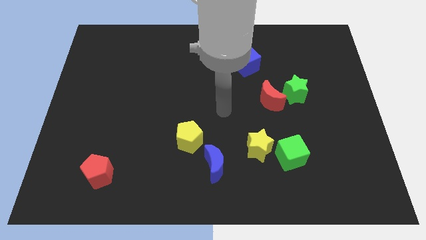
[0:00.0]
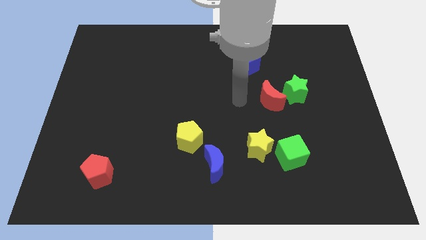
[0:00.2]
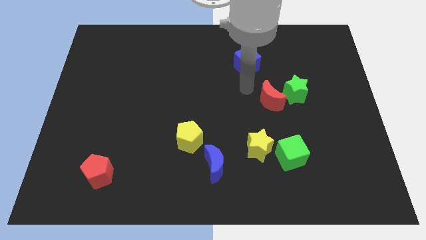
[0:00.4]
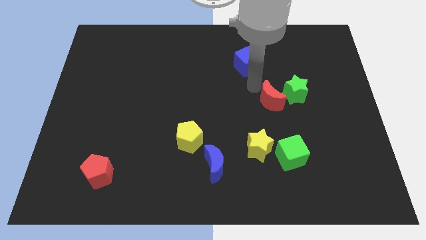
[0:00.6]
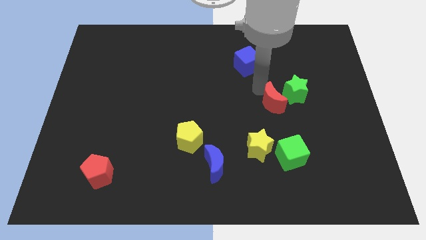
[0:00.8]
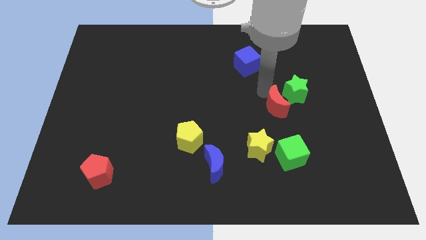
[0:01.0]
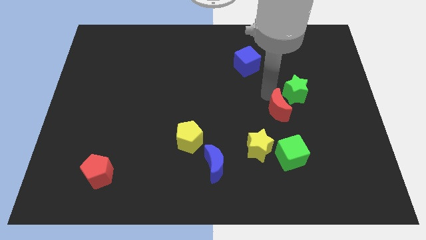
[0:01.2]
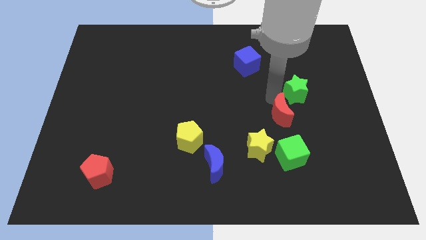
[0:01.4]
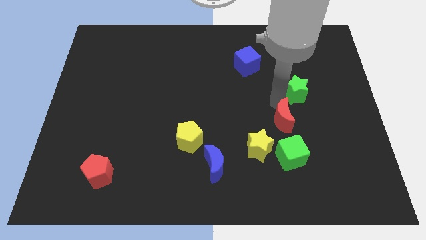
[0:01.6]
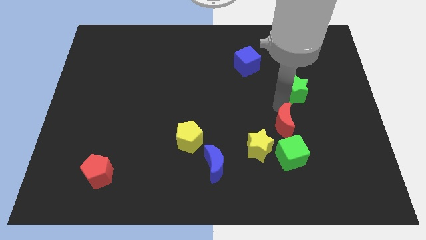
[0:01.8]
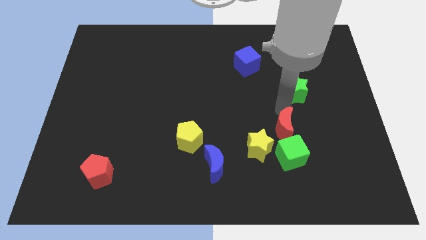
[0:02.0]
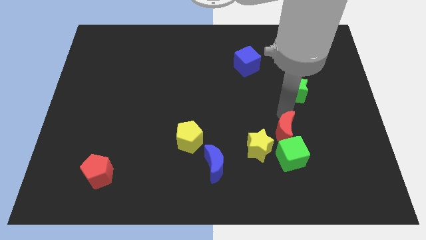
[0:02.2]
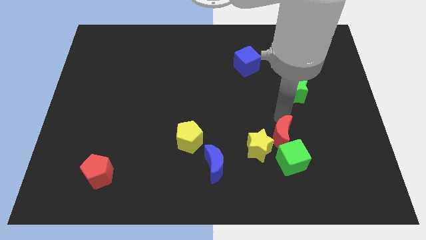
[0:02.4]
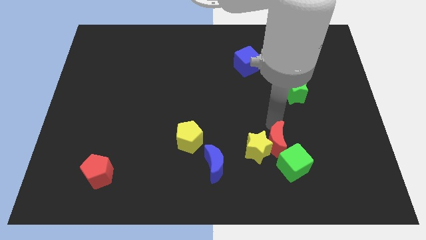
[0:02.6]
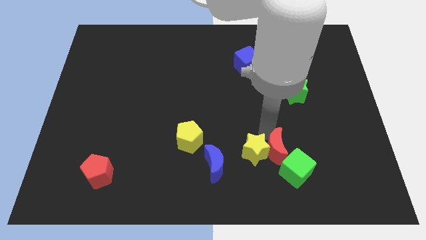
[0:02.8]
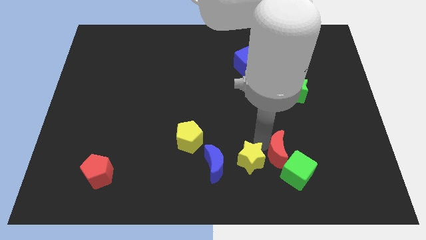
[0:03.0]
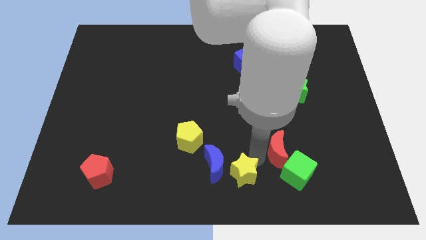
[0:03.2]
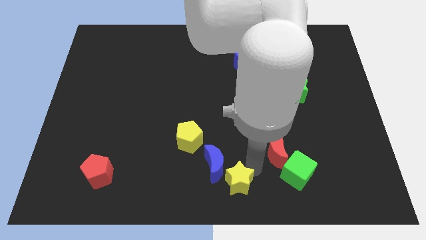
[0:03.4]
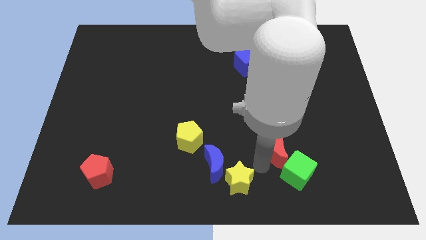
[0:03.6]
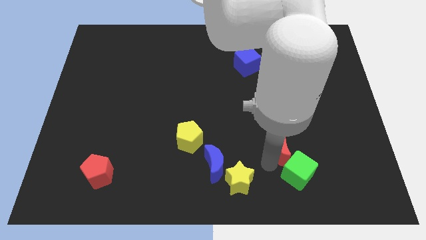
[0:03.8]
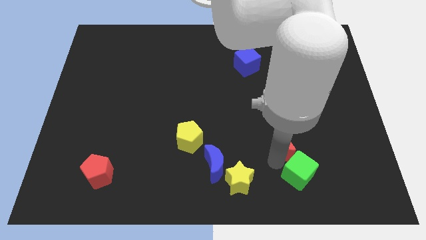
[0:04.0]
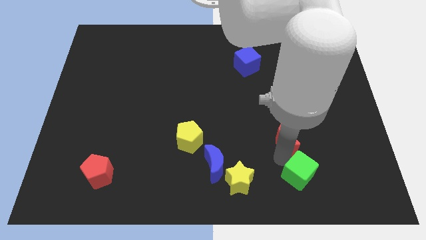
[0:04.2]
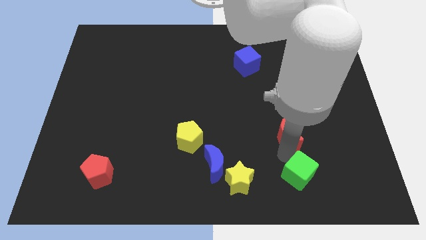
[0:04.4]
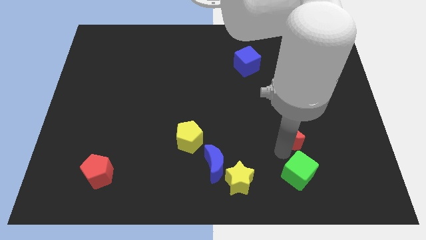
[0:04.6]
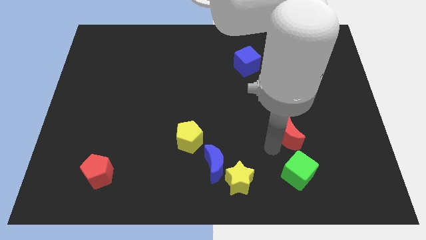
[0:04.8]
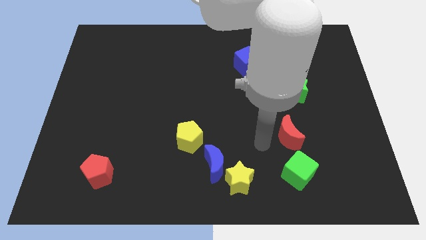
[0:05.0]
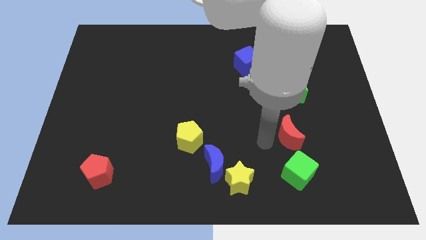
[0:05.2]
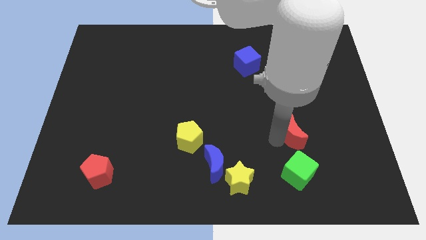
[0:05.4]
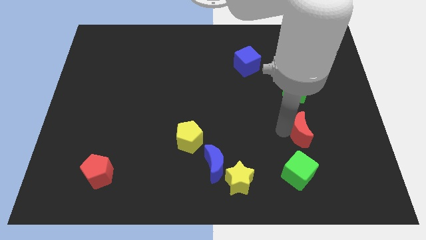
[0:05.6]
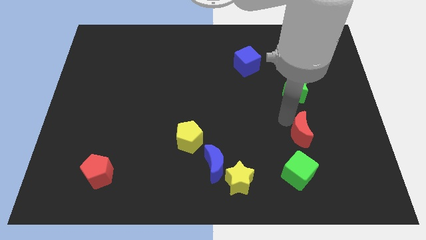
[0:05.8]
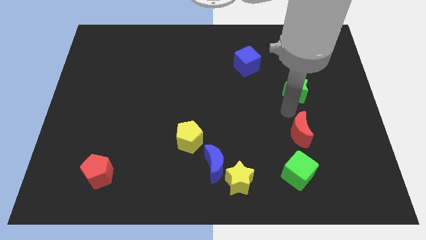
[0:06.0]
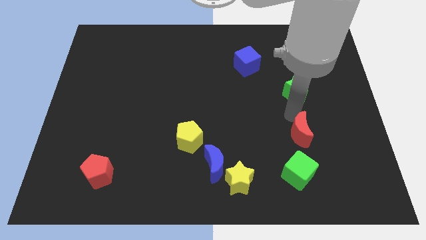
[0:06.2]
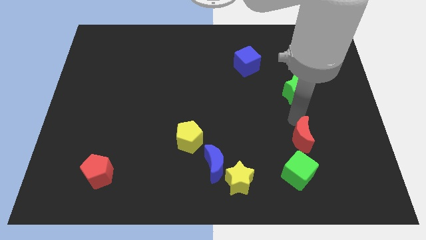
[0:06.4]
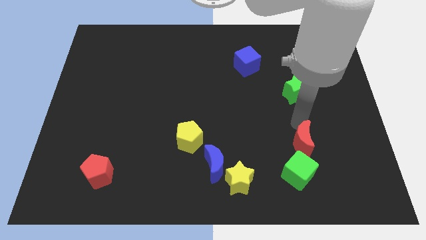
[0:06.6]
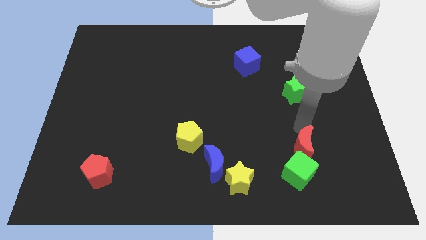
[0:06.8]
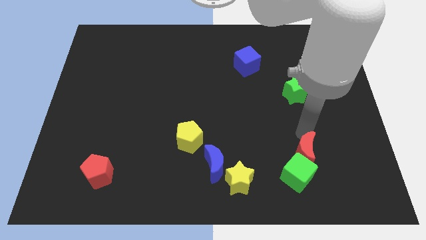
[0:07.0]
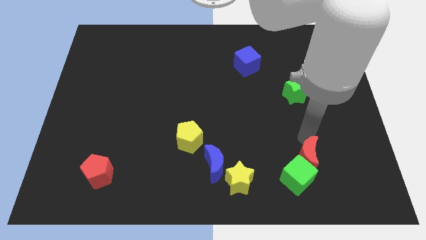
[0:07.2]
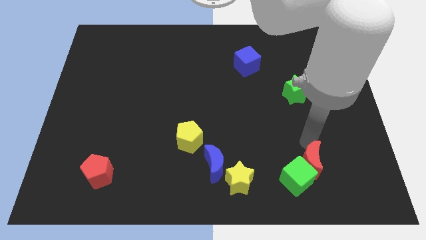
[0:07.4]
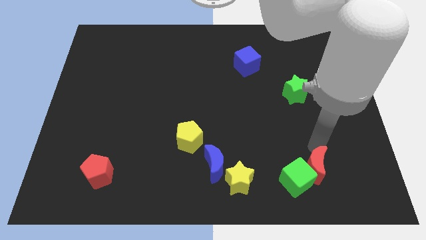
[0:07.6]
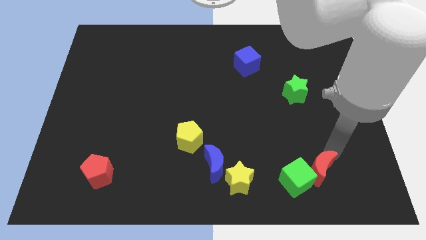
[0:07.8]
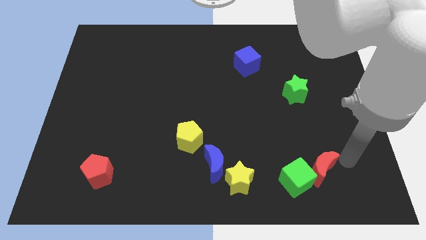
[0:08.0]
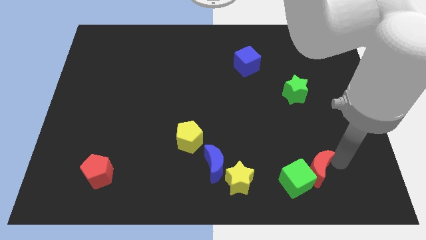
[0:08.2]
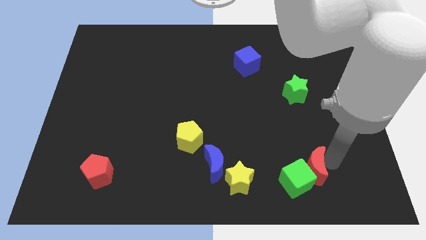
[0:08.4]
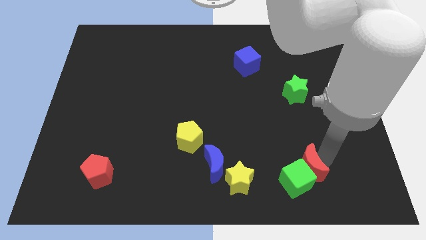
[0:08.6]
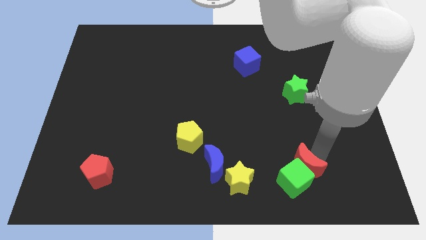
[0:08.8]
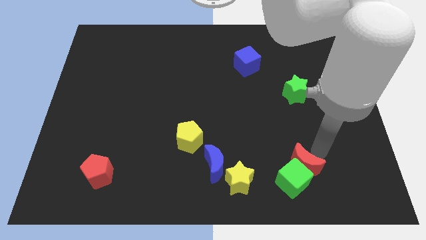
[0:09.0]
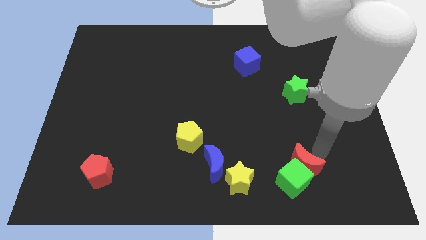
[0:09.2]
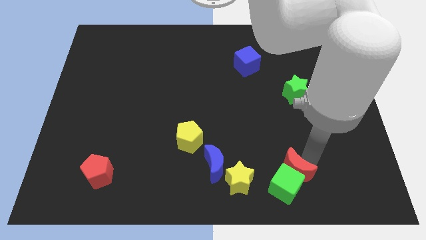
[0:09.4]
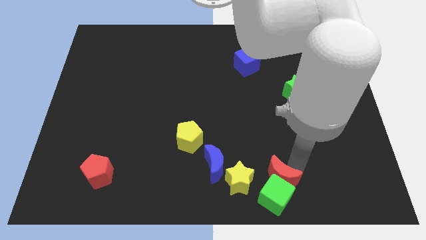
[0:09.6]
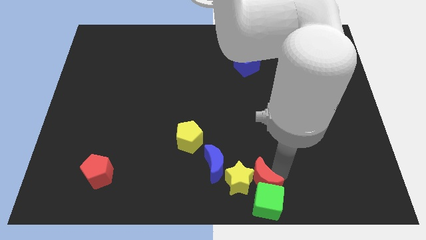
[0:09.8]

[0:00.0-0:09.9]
slide the red moon to the bottom side
